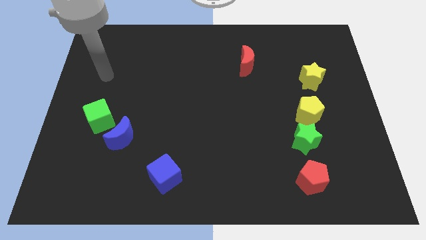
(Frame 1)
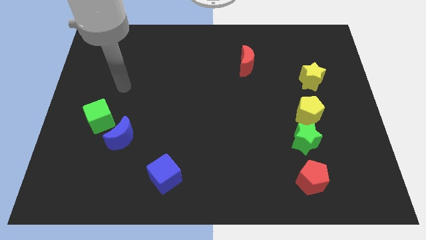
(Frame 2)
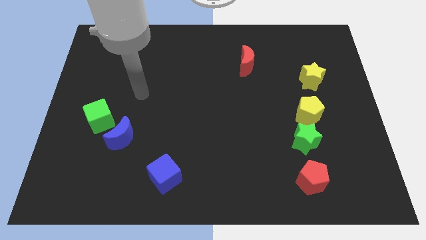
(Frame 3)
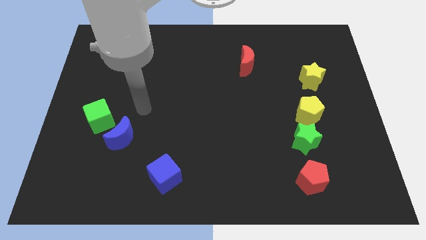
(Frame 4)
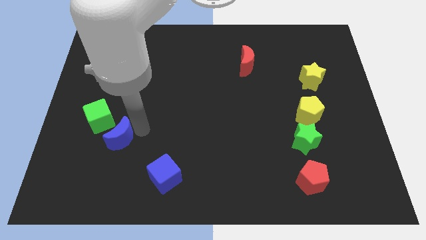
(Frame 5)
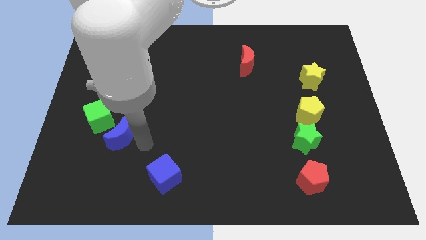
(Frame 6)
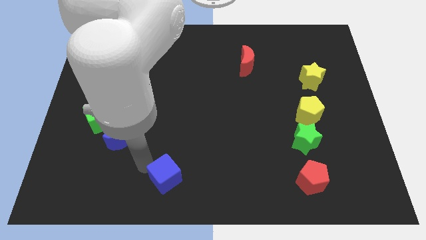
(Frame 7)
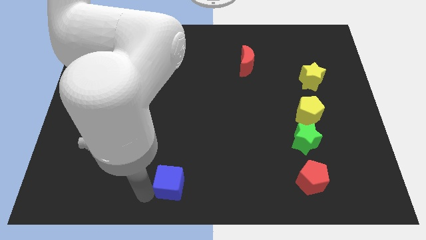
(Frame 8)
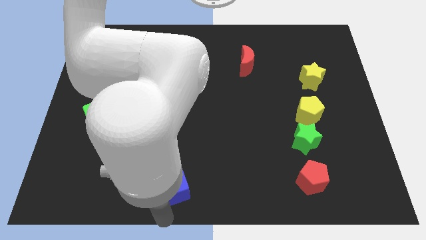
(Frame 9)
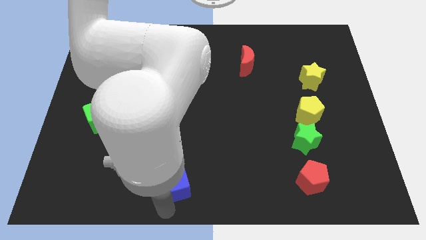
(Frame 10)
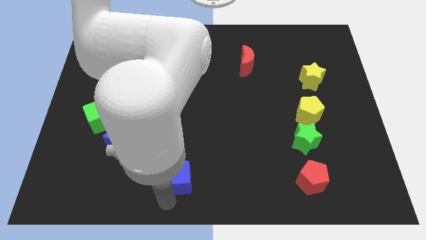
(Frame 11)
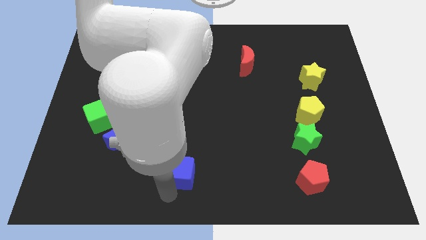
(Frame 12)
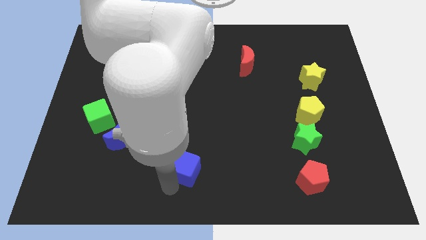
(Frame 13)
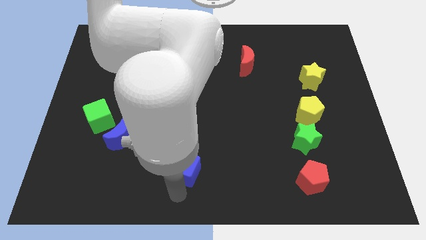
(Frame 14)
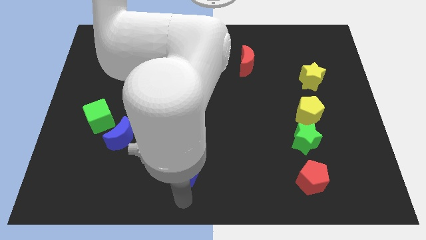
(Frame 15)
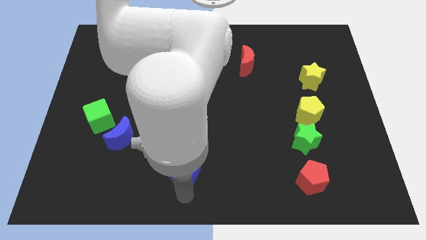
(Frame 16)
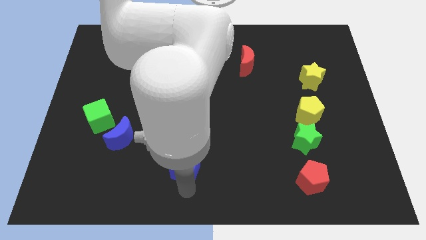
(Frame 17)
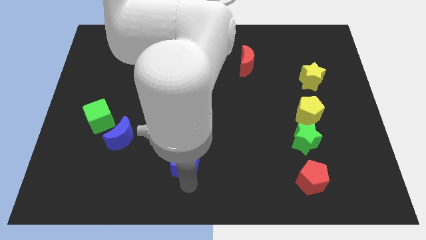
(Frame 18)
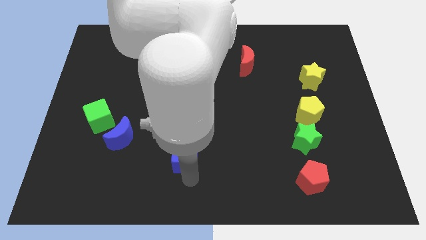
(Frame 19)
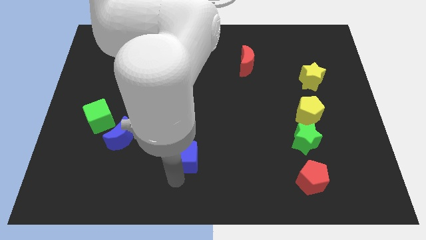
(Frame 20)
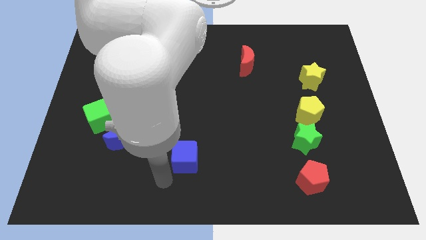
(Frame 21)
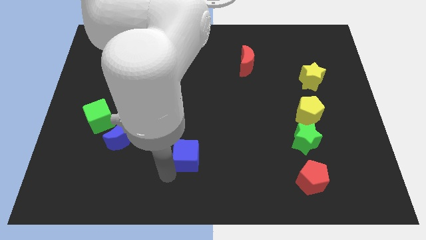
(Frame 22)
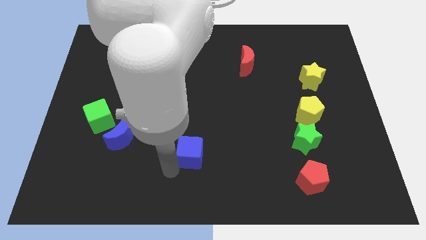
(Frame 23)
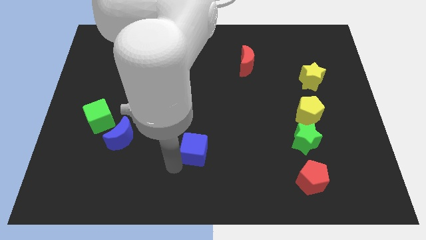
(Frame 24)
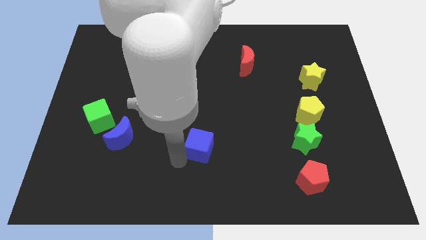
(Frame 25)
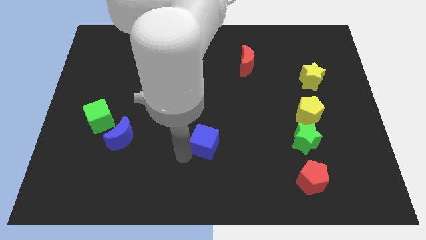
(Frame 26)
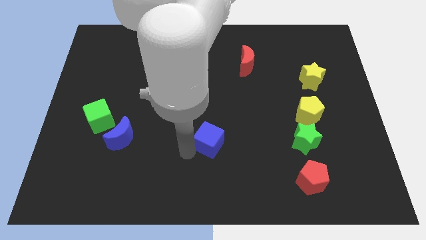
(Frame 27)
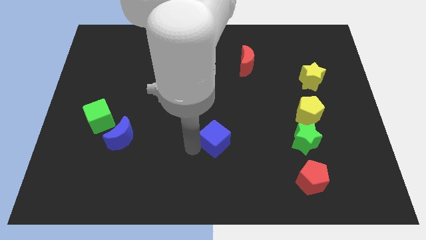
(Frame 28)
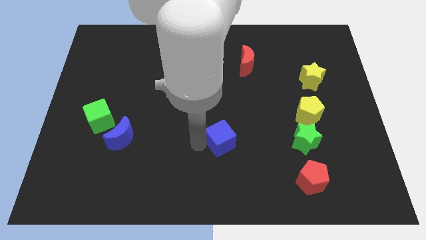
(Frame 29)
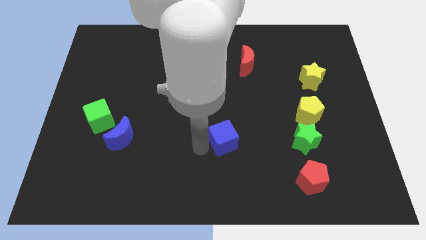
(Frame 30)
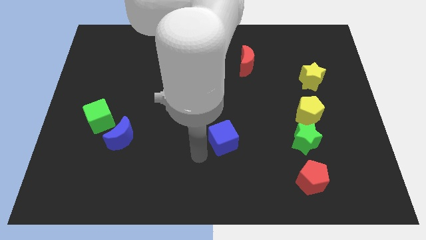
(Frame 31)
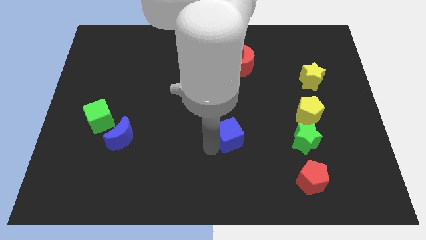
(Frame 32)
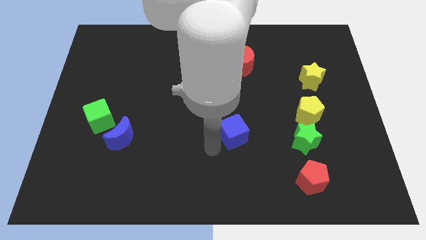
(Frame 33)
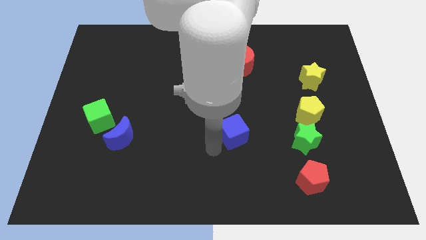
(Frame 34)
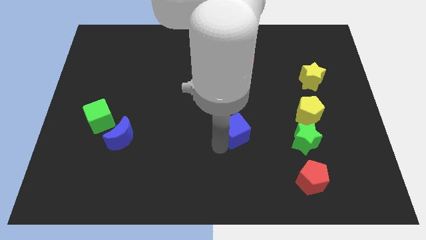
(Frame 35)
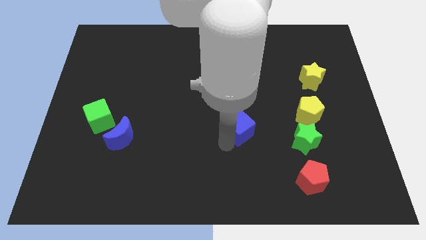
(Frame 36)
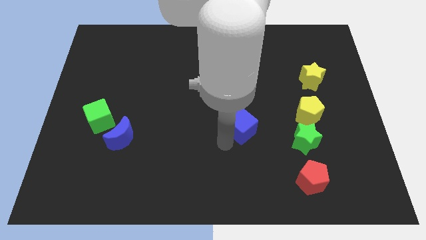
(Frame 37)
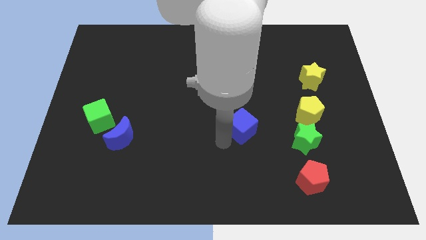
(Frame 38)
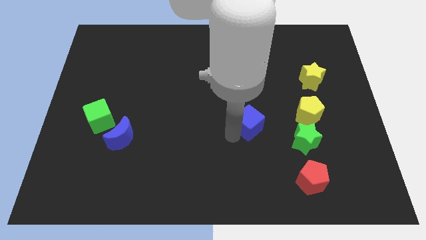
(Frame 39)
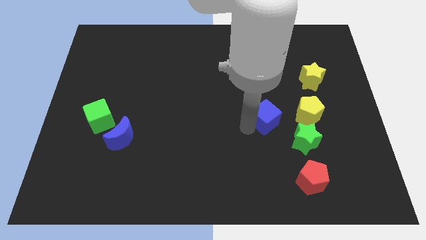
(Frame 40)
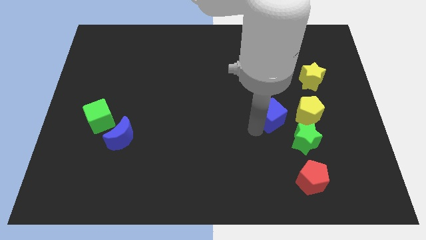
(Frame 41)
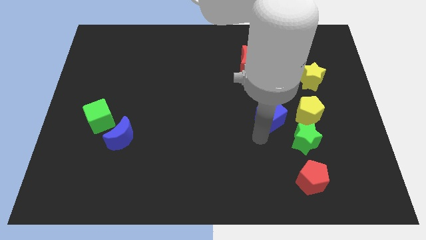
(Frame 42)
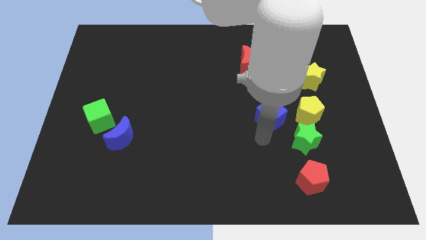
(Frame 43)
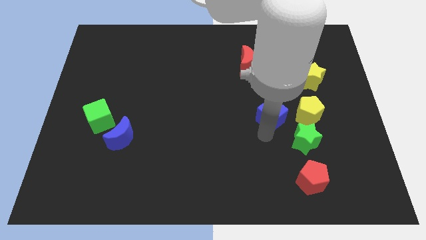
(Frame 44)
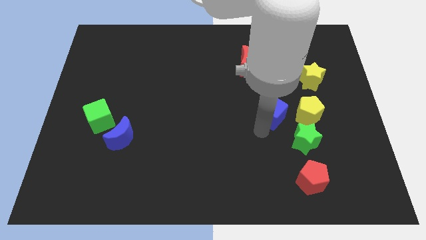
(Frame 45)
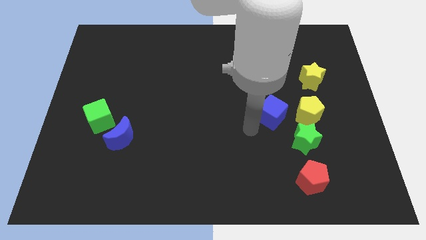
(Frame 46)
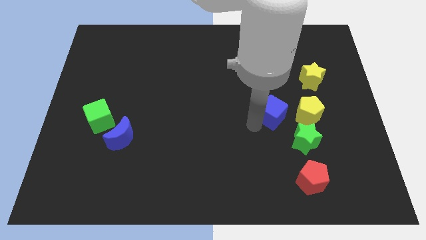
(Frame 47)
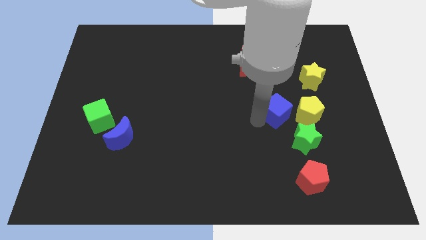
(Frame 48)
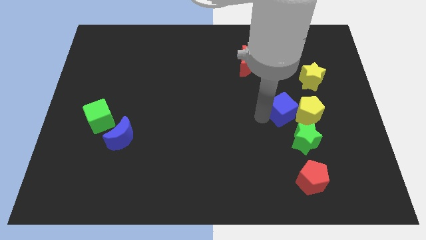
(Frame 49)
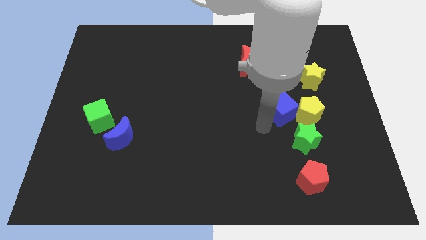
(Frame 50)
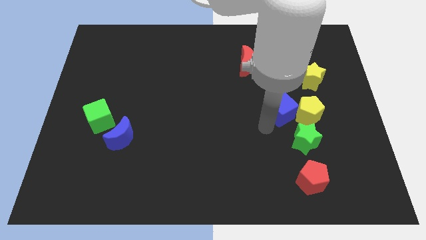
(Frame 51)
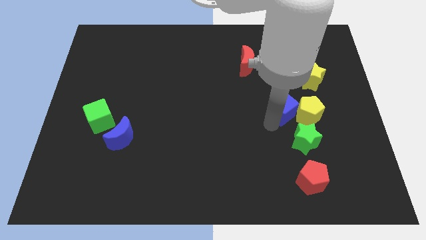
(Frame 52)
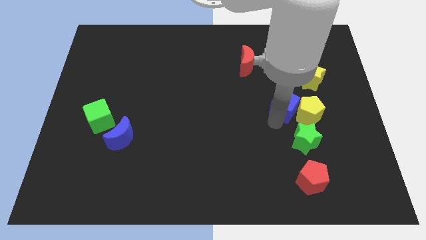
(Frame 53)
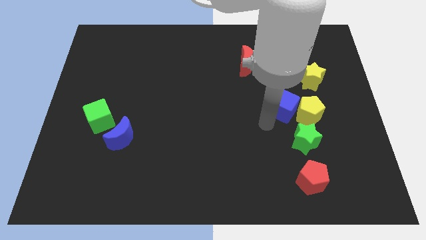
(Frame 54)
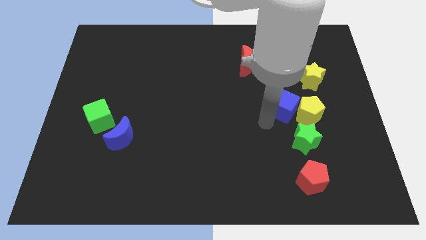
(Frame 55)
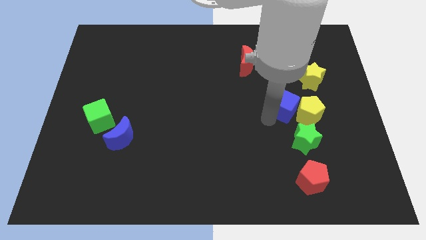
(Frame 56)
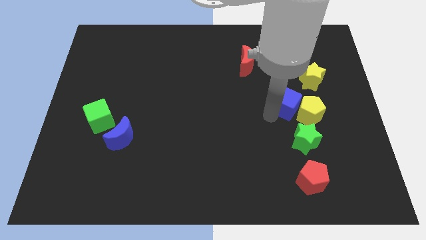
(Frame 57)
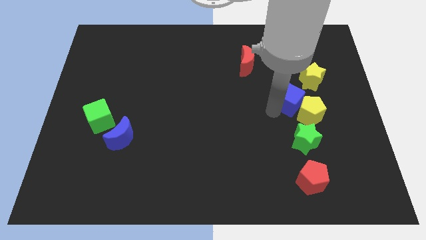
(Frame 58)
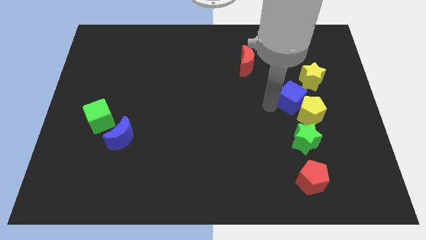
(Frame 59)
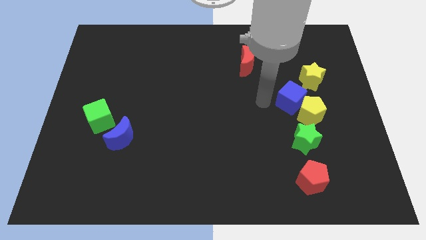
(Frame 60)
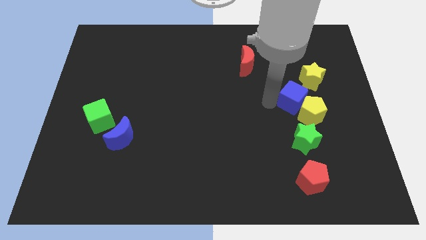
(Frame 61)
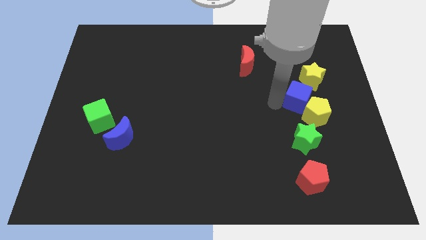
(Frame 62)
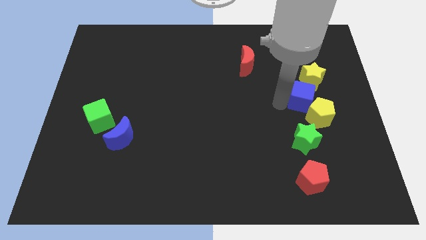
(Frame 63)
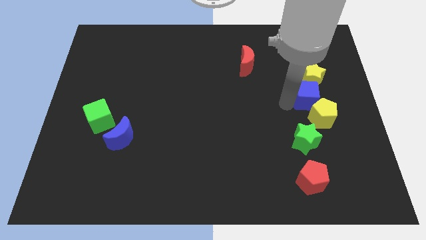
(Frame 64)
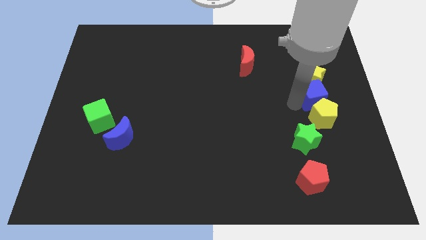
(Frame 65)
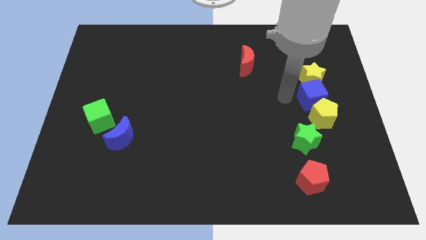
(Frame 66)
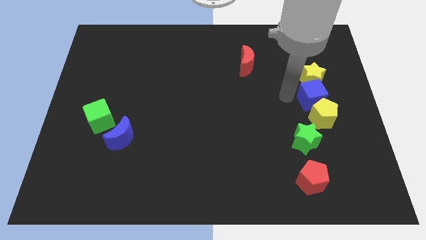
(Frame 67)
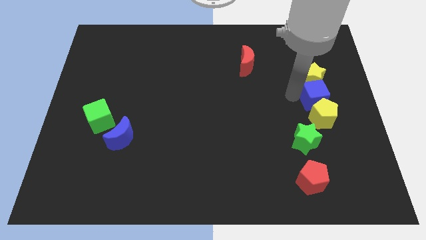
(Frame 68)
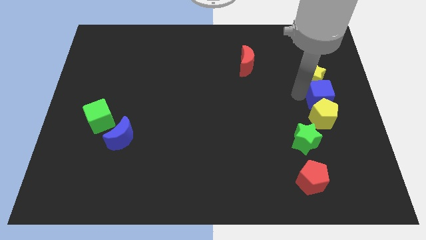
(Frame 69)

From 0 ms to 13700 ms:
put the blue cube to the right side

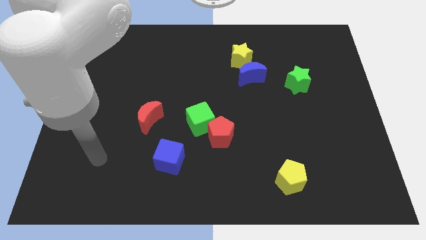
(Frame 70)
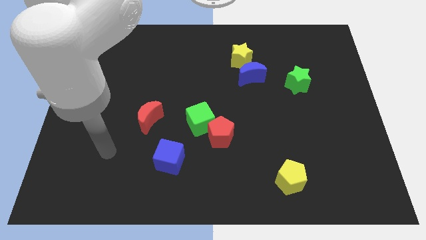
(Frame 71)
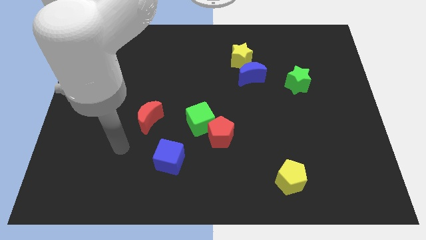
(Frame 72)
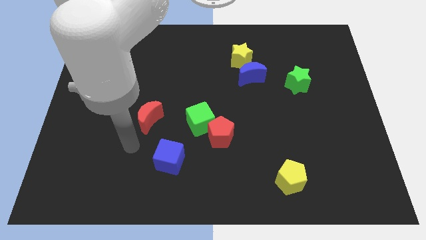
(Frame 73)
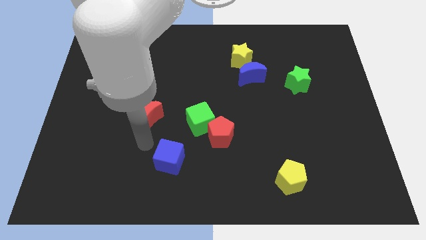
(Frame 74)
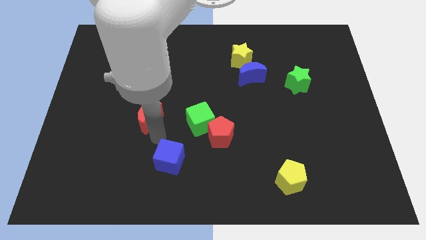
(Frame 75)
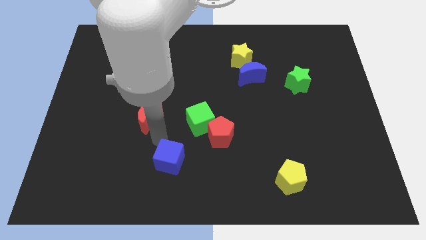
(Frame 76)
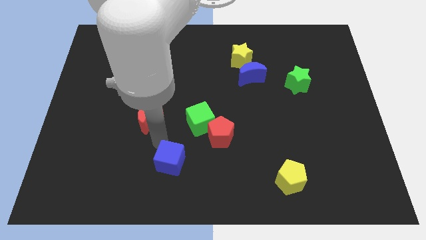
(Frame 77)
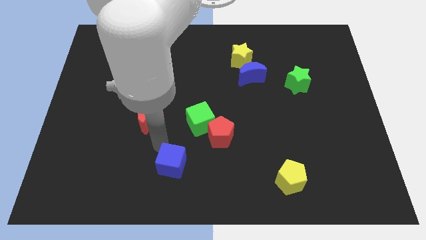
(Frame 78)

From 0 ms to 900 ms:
move the blue cube to the bottom side
